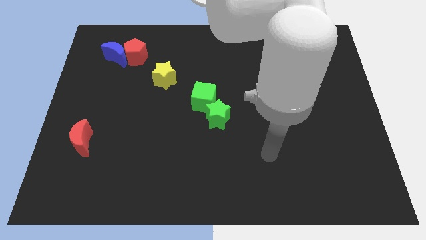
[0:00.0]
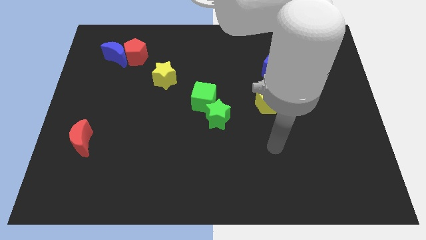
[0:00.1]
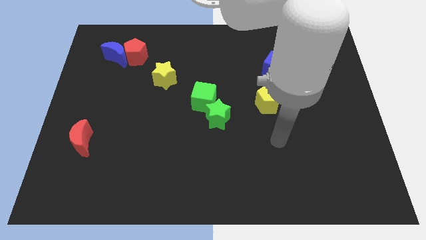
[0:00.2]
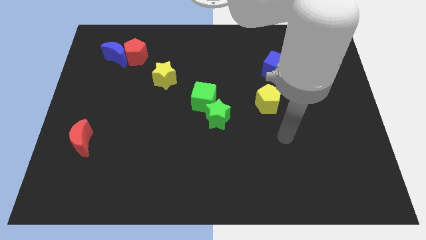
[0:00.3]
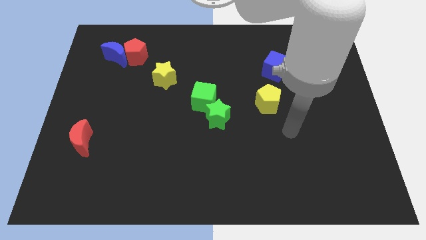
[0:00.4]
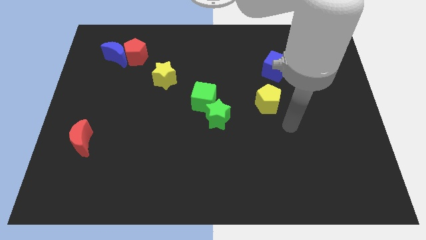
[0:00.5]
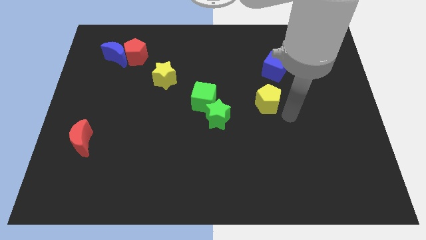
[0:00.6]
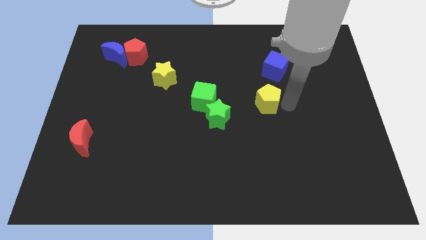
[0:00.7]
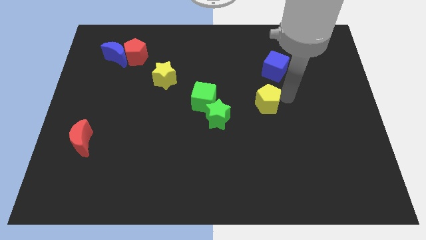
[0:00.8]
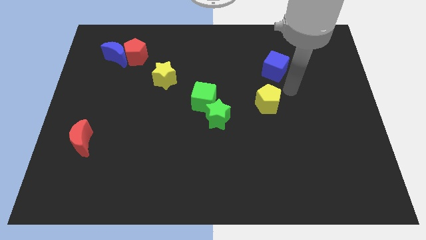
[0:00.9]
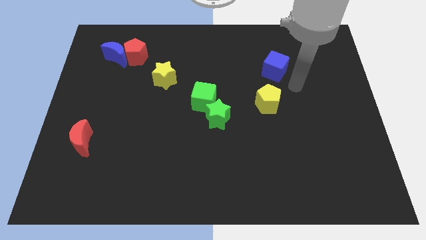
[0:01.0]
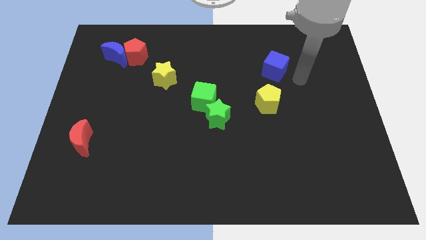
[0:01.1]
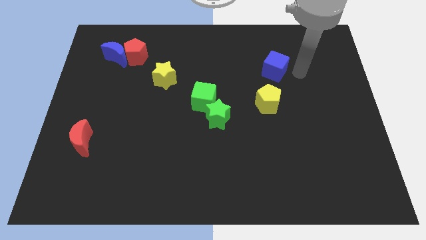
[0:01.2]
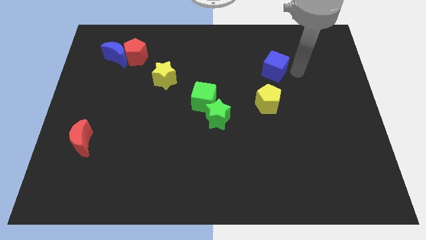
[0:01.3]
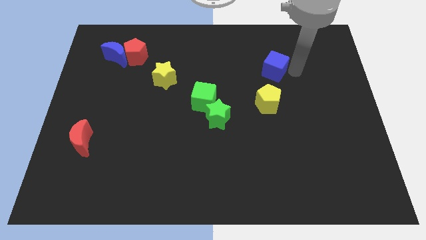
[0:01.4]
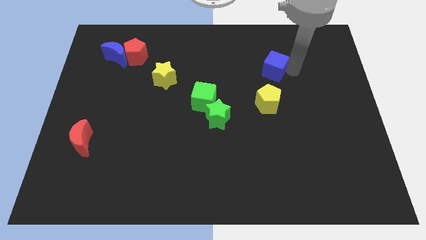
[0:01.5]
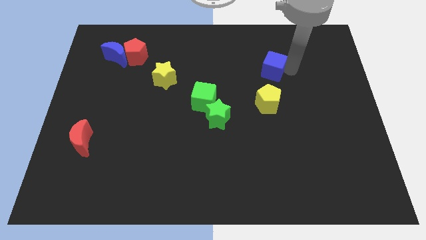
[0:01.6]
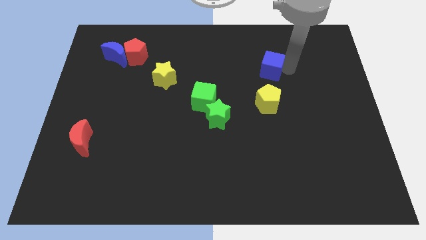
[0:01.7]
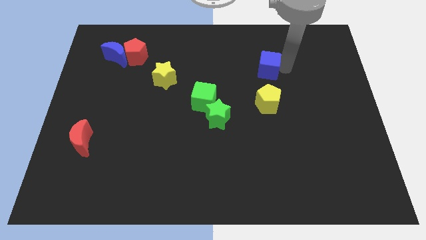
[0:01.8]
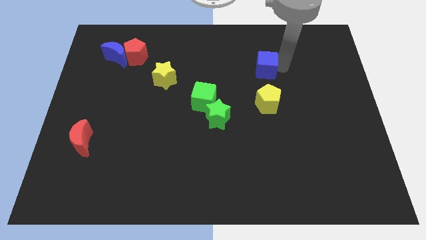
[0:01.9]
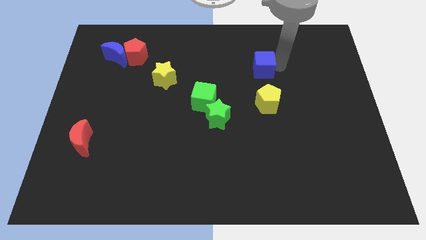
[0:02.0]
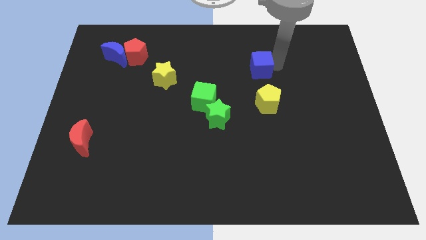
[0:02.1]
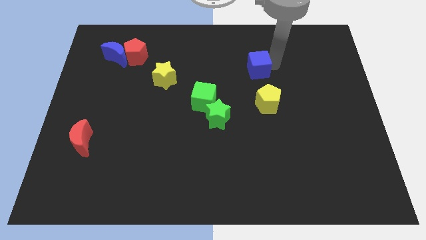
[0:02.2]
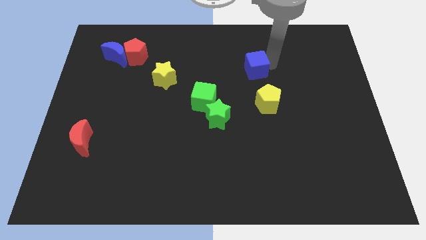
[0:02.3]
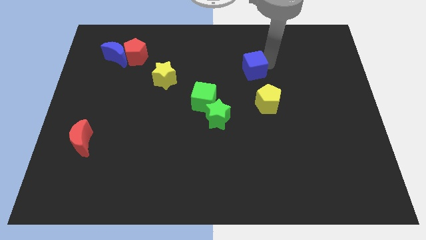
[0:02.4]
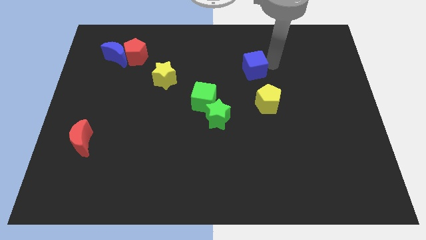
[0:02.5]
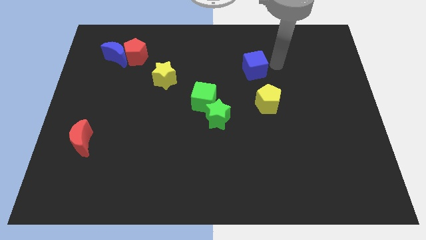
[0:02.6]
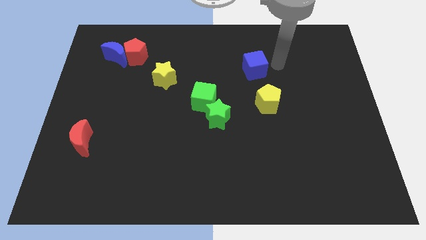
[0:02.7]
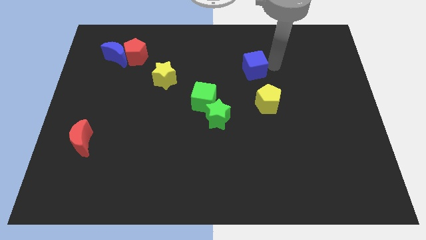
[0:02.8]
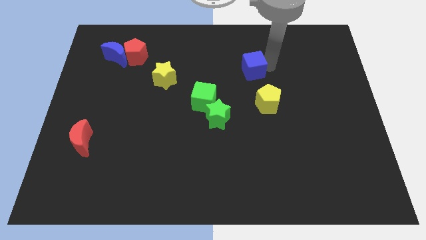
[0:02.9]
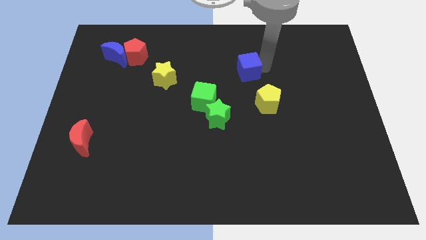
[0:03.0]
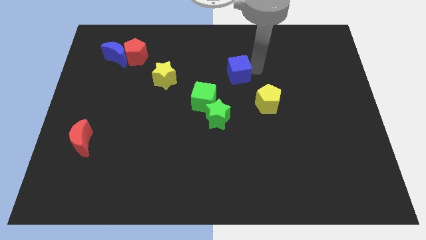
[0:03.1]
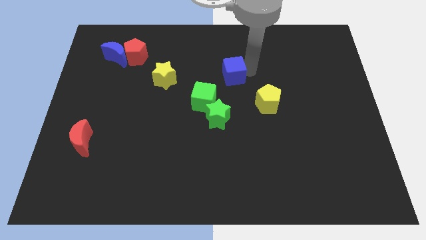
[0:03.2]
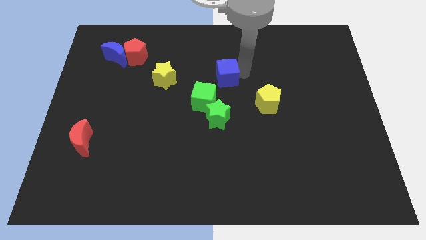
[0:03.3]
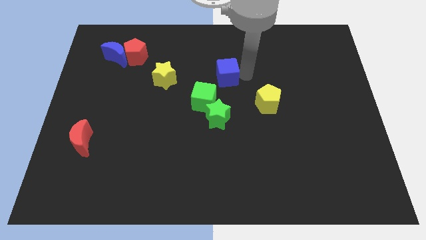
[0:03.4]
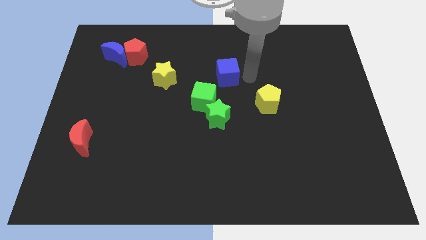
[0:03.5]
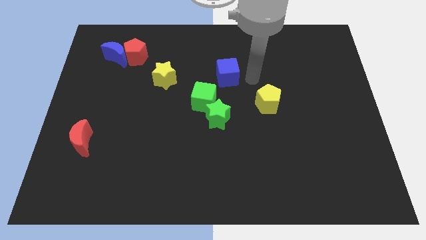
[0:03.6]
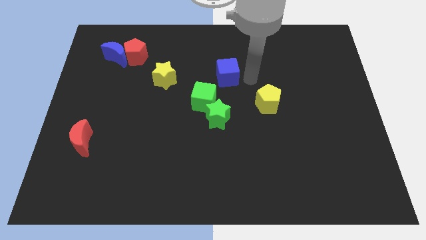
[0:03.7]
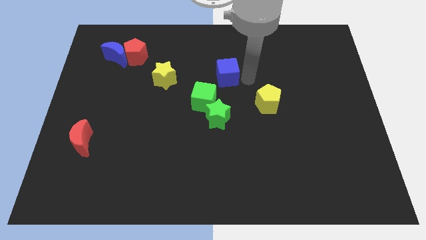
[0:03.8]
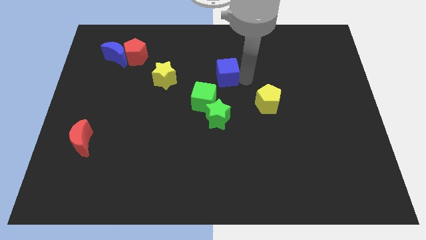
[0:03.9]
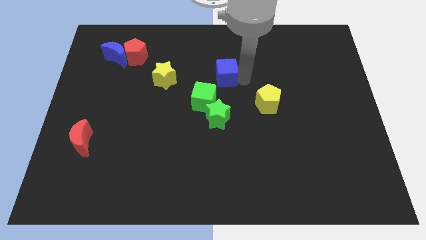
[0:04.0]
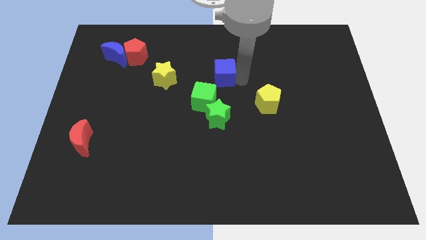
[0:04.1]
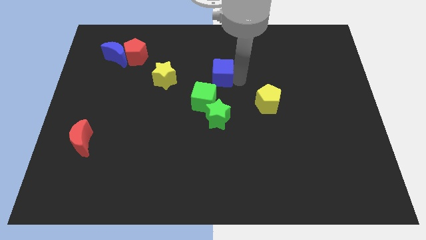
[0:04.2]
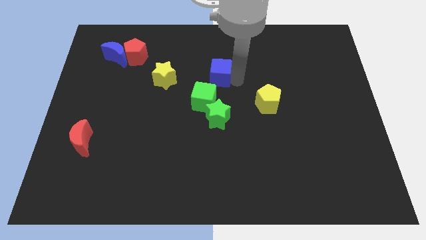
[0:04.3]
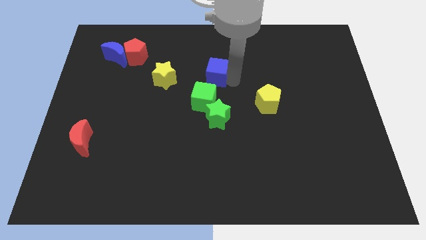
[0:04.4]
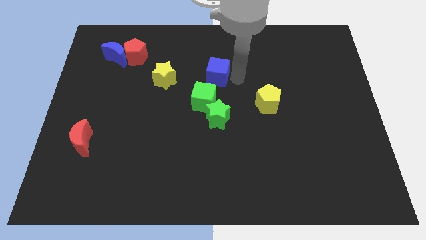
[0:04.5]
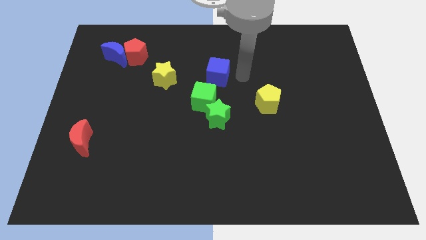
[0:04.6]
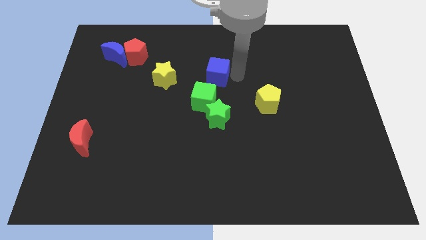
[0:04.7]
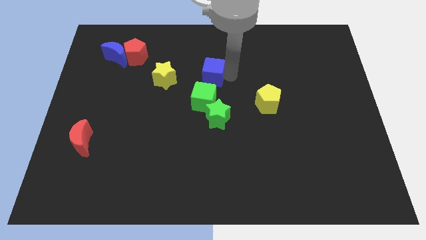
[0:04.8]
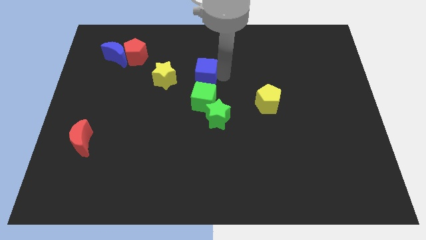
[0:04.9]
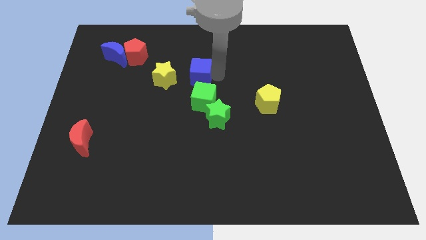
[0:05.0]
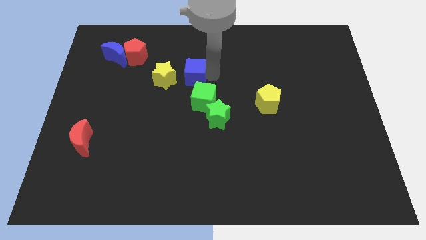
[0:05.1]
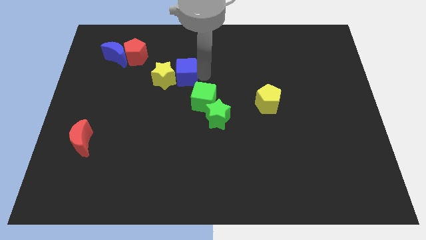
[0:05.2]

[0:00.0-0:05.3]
move the blue cube close to the yellow star

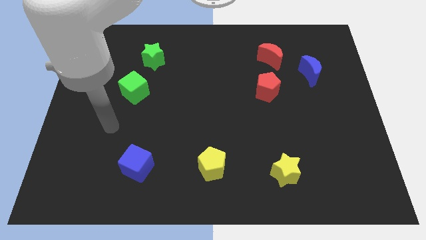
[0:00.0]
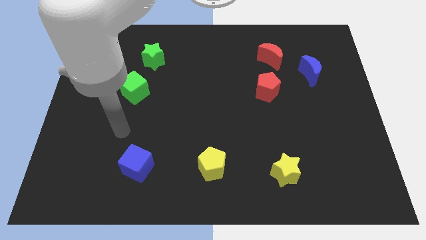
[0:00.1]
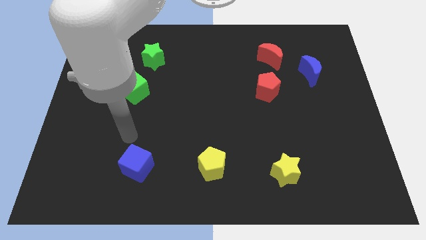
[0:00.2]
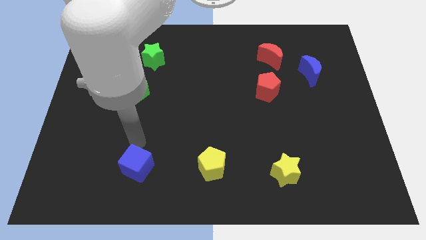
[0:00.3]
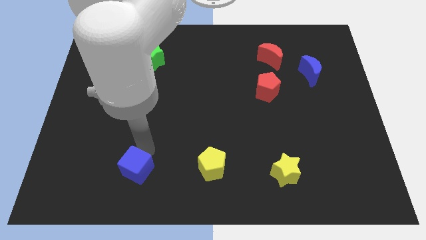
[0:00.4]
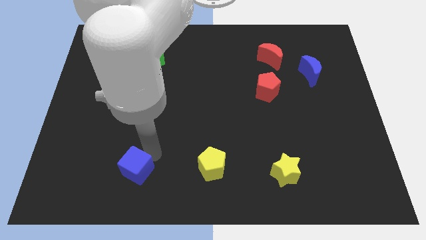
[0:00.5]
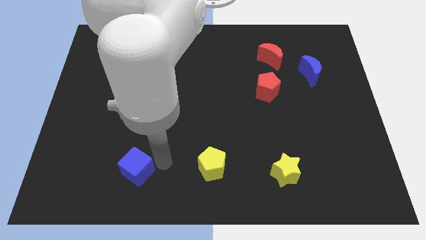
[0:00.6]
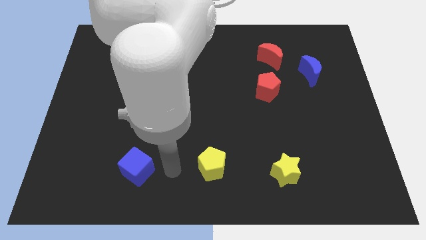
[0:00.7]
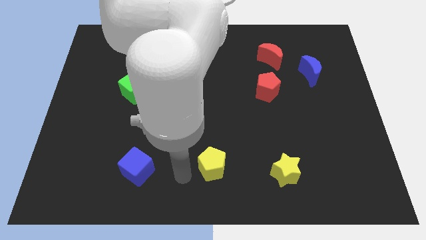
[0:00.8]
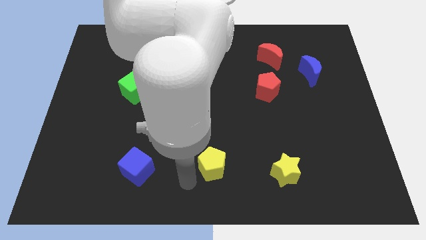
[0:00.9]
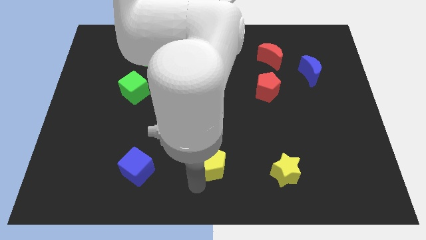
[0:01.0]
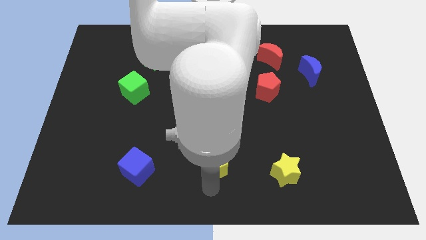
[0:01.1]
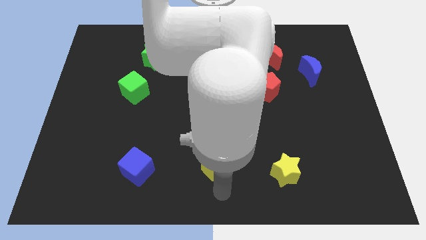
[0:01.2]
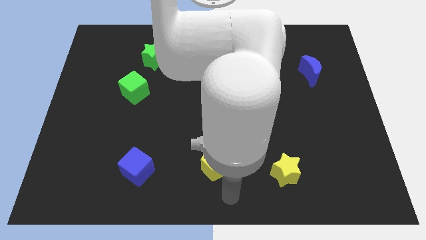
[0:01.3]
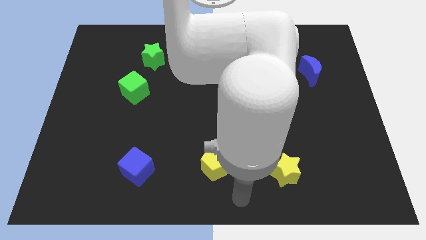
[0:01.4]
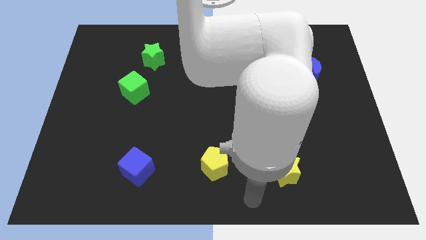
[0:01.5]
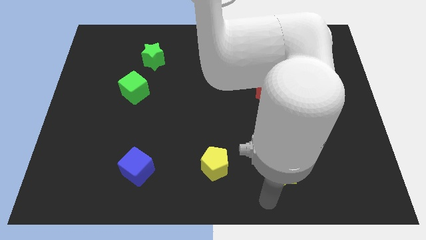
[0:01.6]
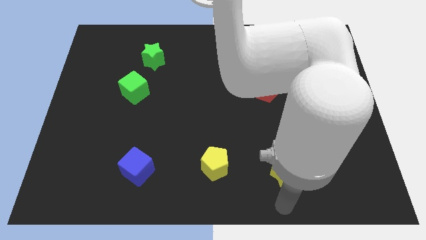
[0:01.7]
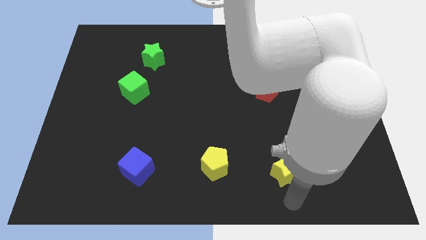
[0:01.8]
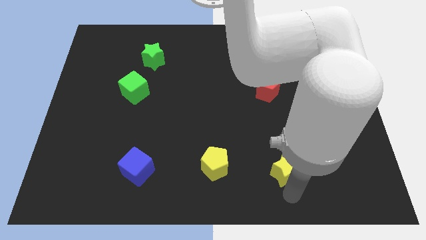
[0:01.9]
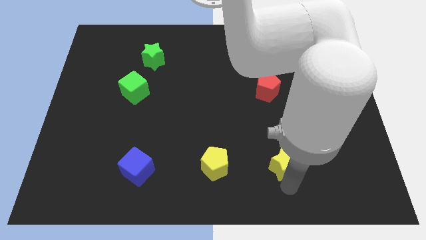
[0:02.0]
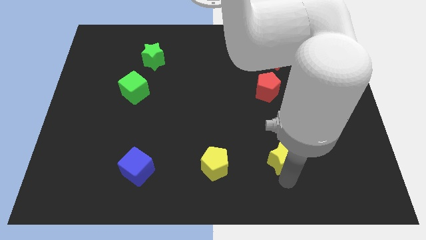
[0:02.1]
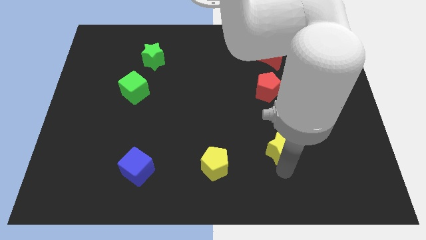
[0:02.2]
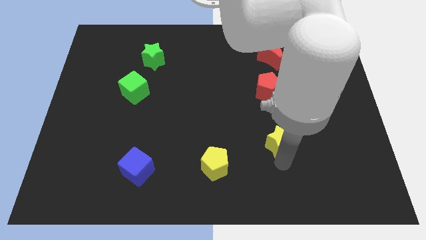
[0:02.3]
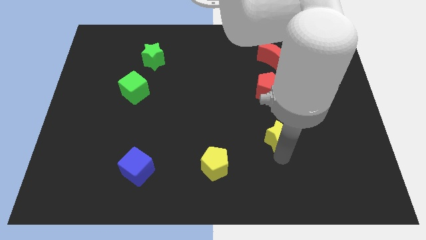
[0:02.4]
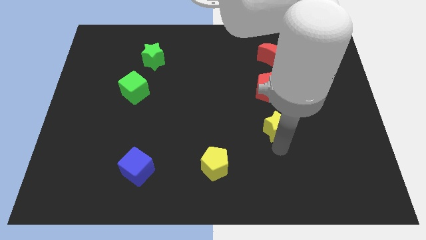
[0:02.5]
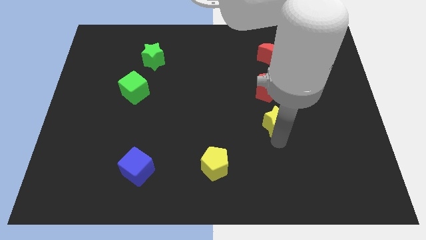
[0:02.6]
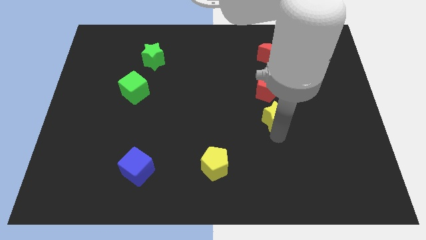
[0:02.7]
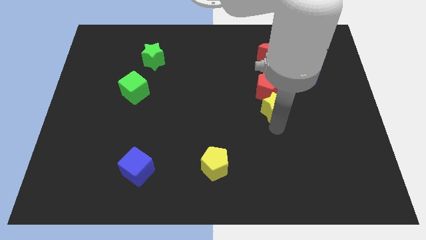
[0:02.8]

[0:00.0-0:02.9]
put the yellow star towards the red pentagon
